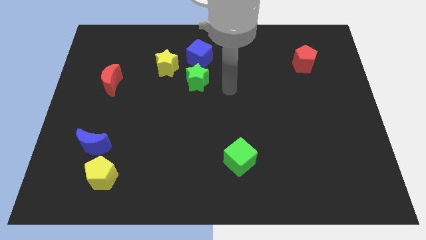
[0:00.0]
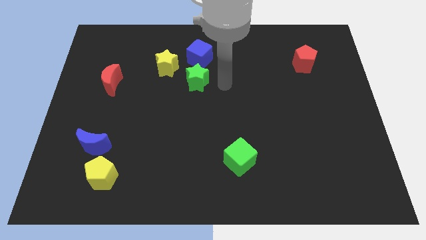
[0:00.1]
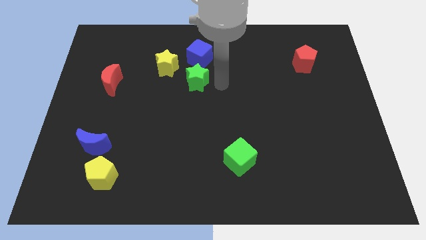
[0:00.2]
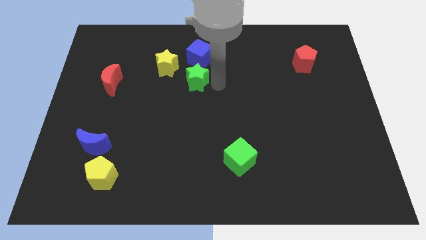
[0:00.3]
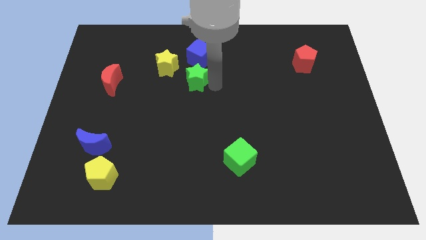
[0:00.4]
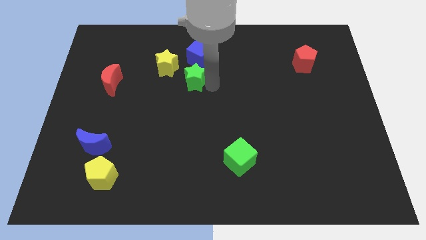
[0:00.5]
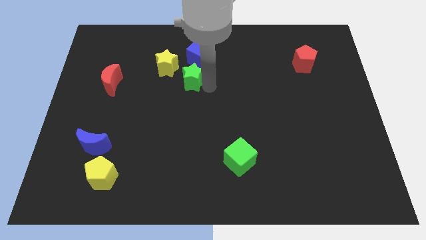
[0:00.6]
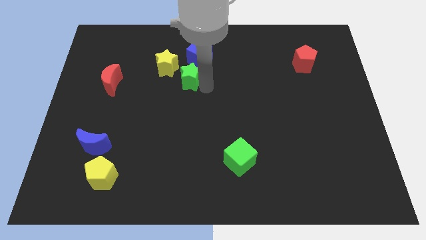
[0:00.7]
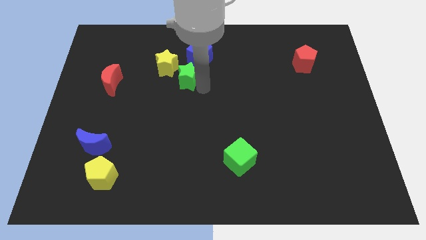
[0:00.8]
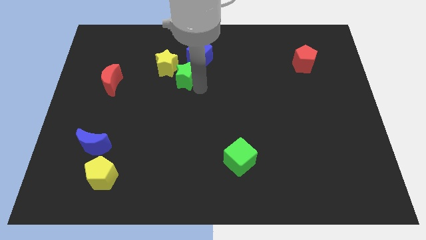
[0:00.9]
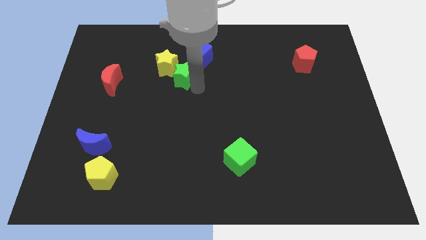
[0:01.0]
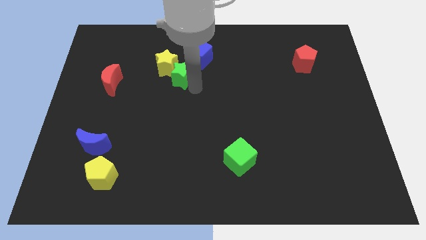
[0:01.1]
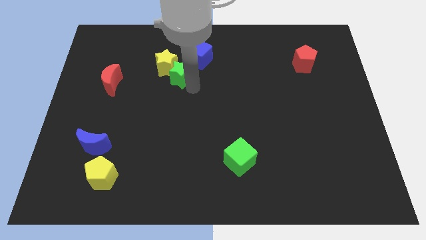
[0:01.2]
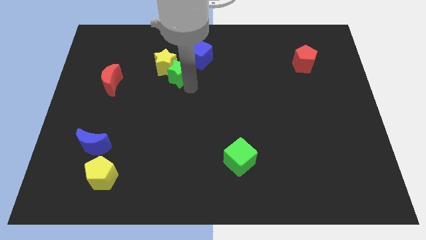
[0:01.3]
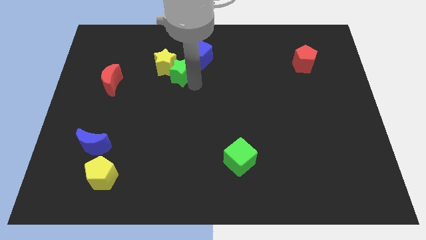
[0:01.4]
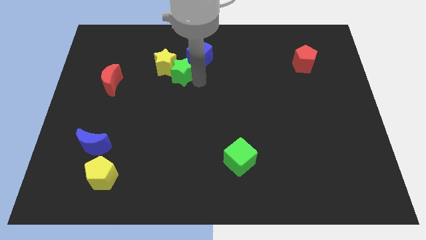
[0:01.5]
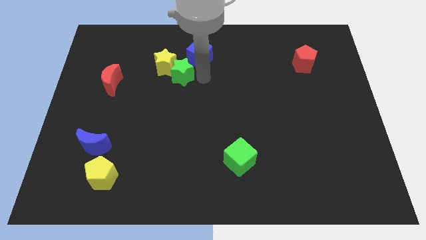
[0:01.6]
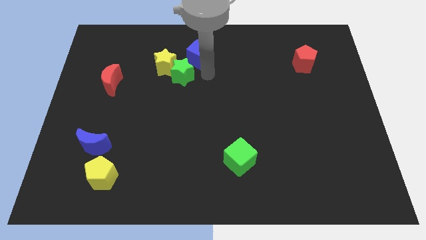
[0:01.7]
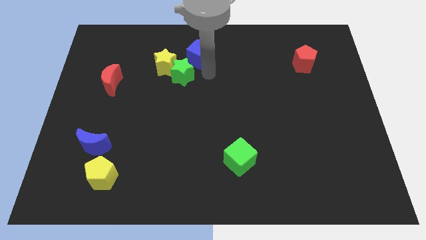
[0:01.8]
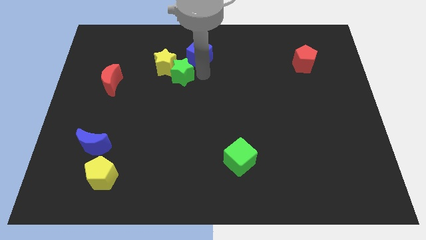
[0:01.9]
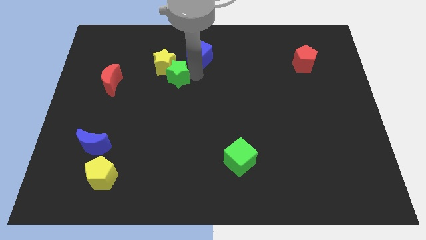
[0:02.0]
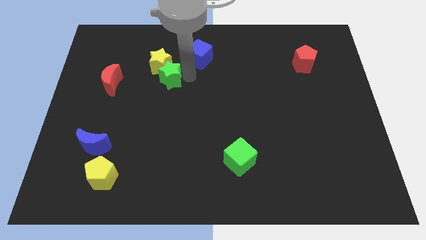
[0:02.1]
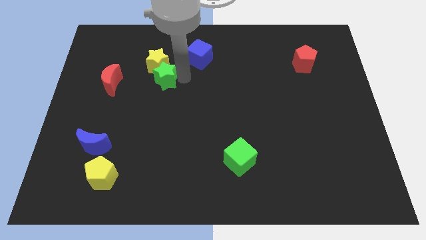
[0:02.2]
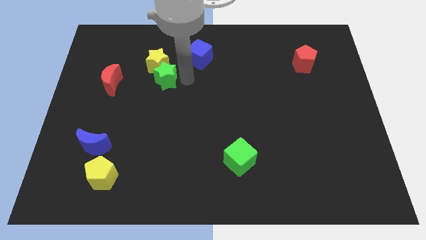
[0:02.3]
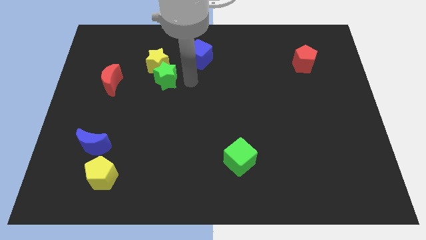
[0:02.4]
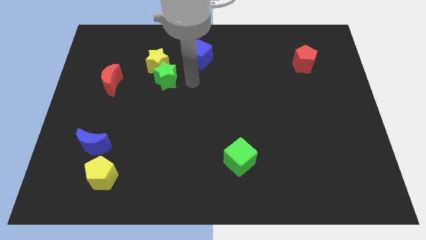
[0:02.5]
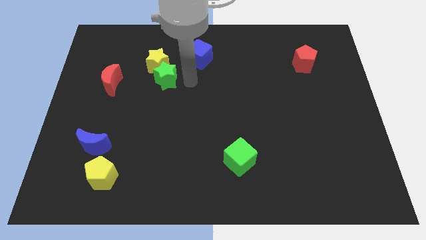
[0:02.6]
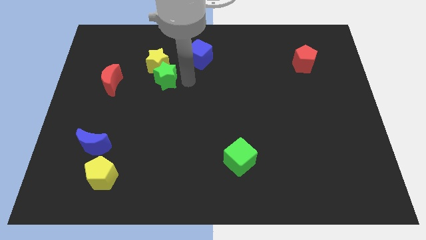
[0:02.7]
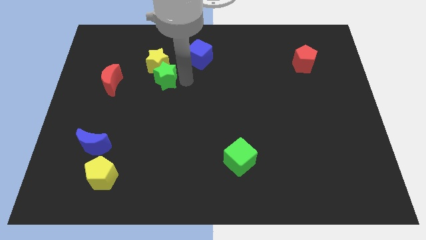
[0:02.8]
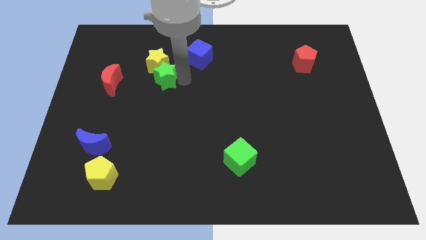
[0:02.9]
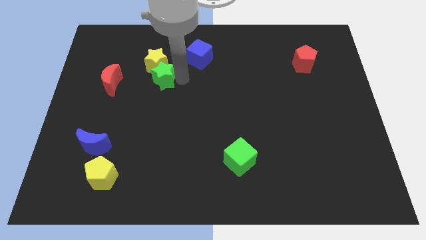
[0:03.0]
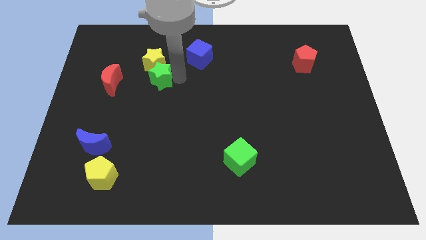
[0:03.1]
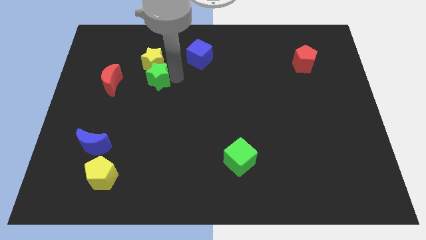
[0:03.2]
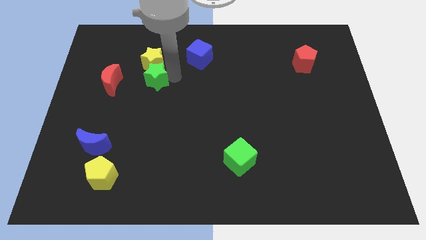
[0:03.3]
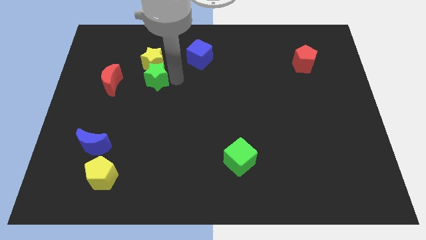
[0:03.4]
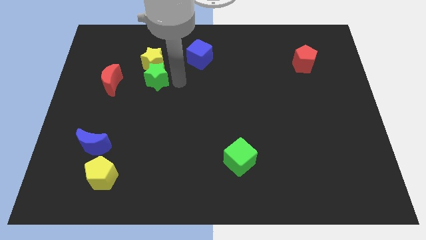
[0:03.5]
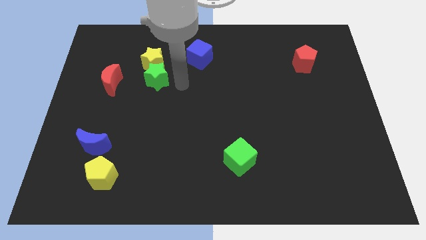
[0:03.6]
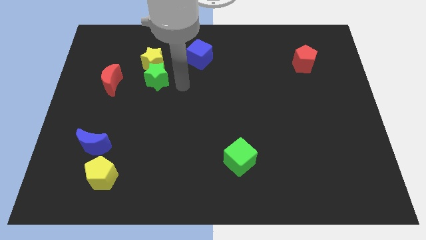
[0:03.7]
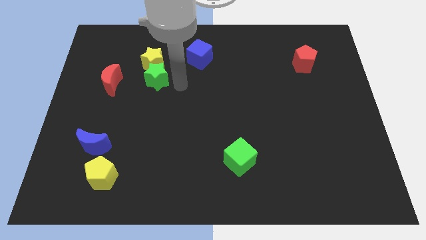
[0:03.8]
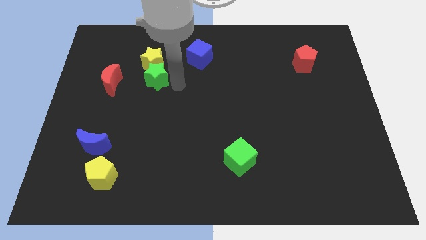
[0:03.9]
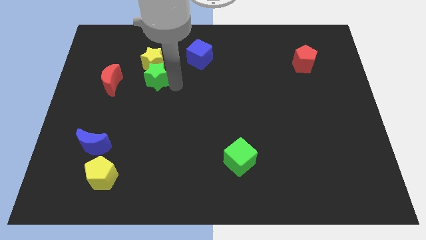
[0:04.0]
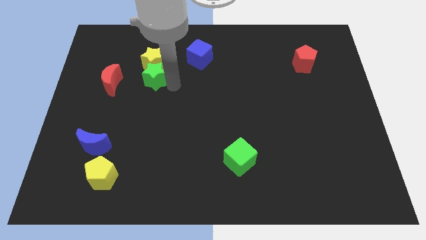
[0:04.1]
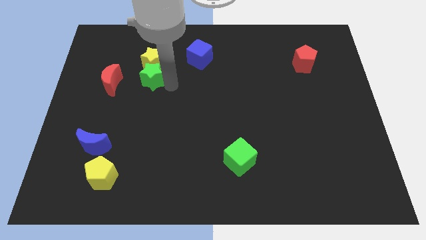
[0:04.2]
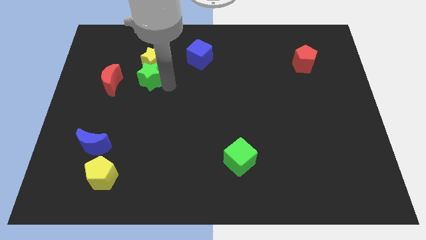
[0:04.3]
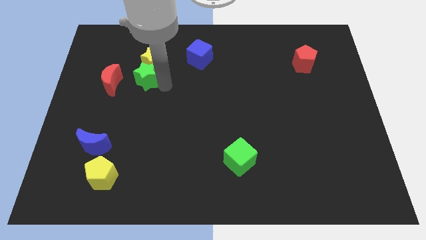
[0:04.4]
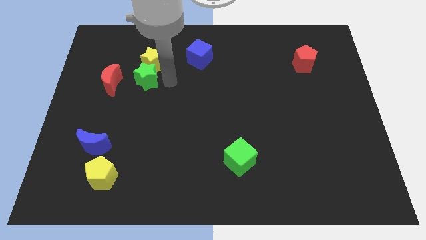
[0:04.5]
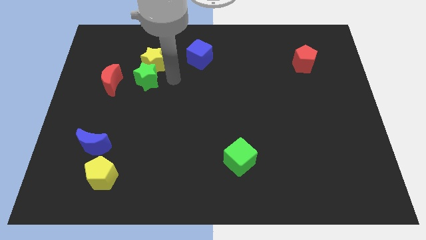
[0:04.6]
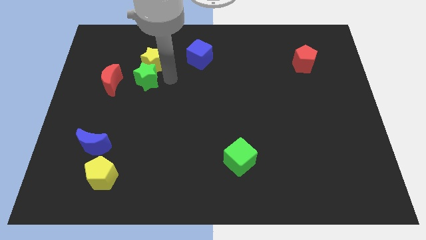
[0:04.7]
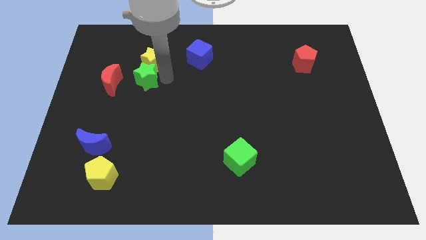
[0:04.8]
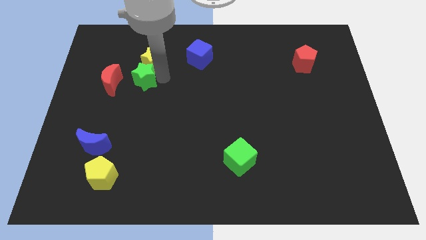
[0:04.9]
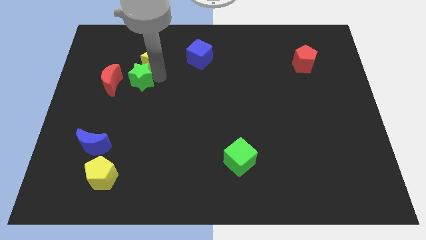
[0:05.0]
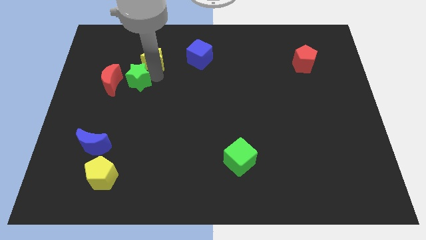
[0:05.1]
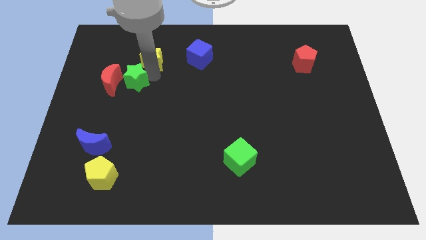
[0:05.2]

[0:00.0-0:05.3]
push the green star towards the red moon

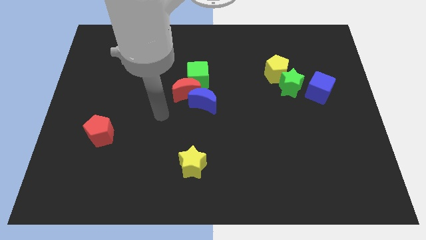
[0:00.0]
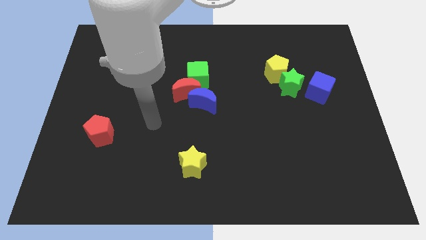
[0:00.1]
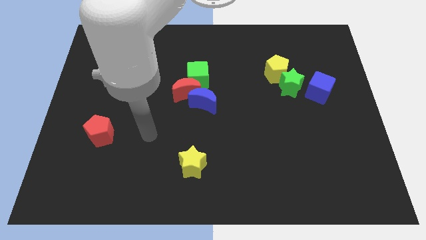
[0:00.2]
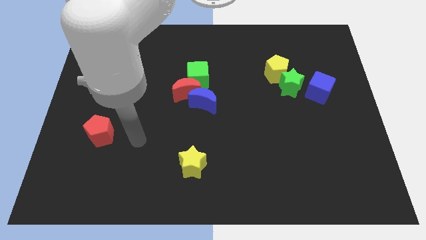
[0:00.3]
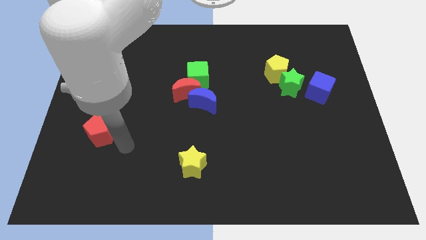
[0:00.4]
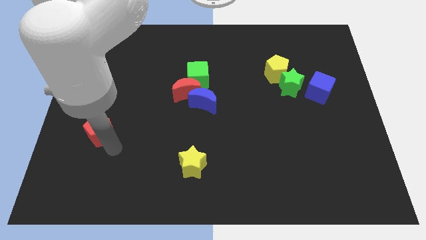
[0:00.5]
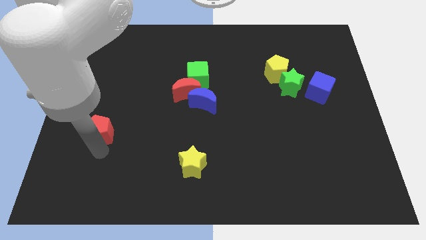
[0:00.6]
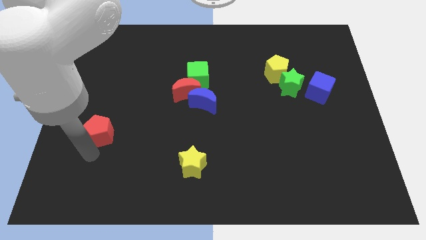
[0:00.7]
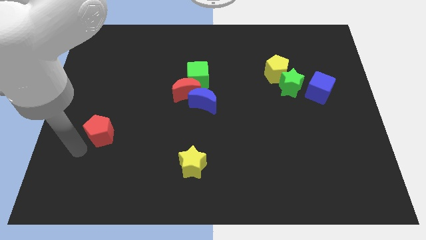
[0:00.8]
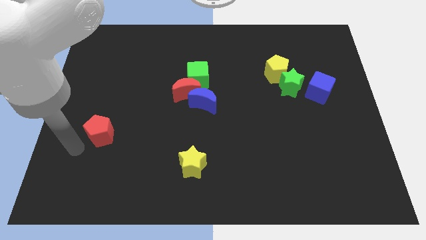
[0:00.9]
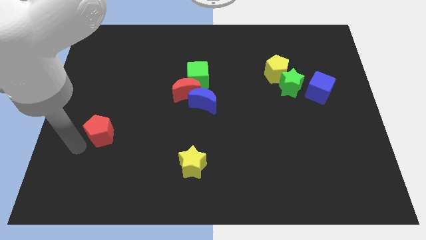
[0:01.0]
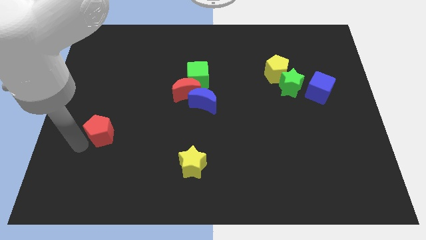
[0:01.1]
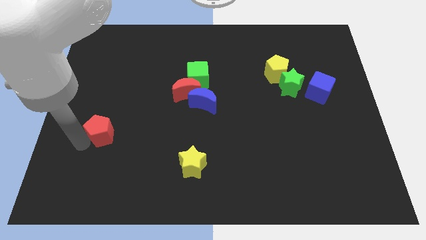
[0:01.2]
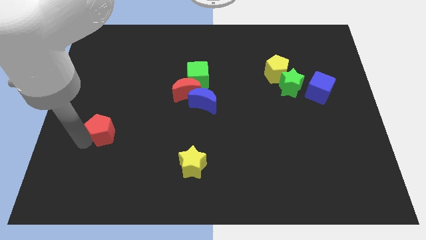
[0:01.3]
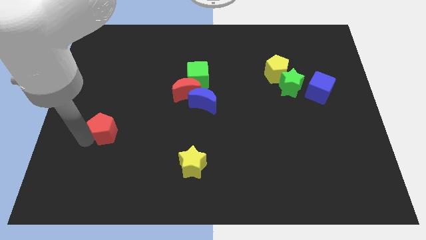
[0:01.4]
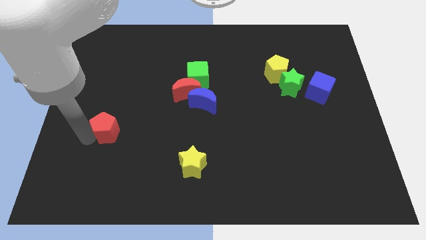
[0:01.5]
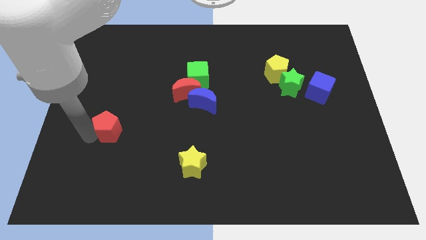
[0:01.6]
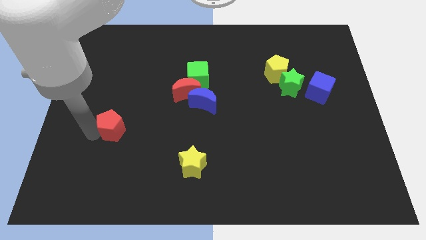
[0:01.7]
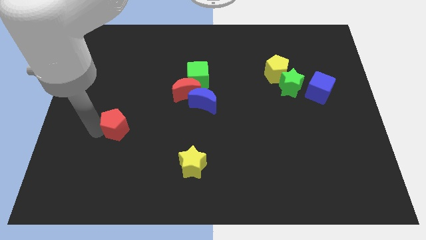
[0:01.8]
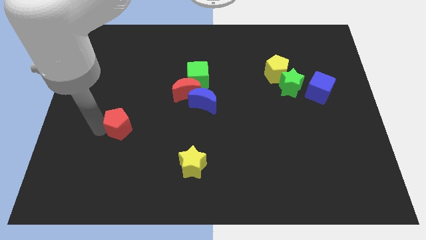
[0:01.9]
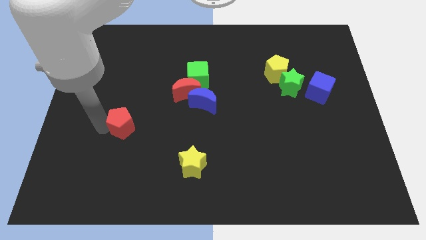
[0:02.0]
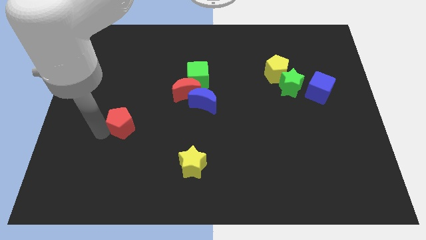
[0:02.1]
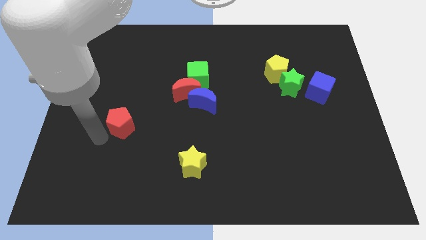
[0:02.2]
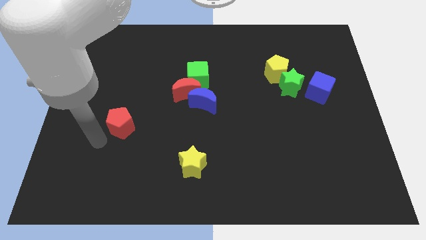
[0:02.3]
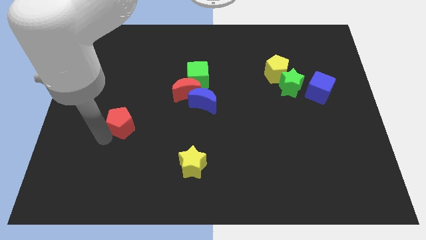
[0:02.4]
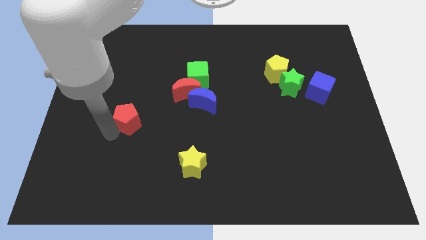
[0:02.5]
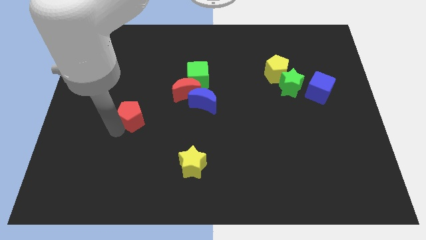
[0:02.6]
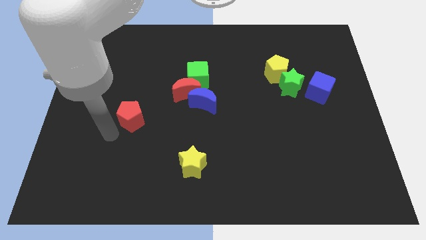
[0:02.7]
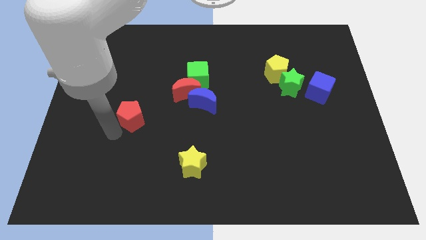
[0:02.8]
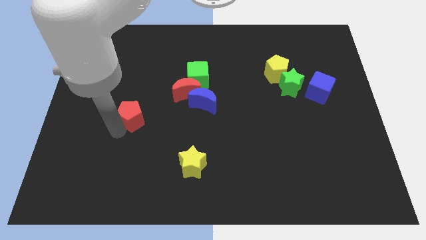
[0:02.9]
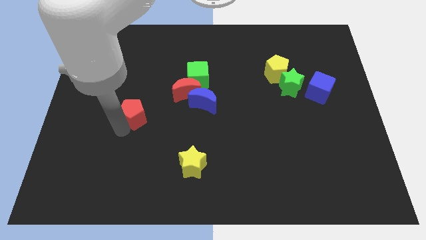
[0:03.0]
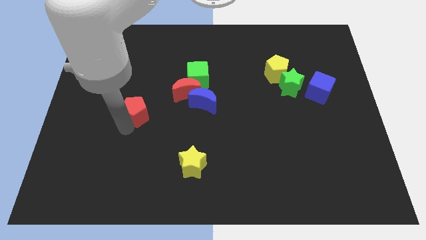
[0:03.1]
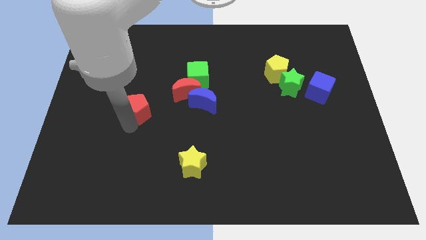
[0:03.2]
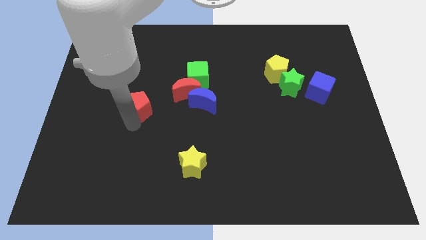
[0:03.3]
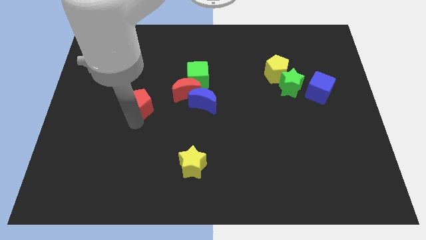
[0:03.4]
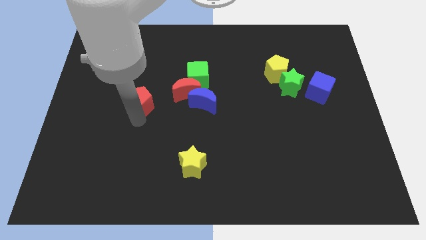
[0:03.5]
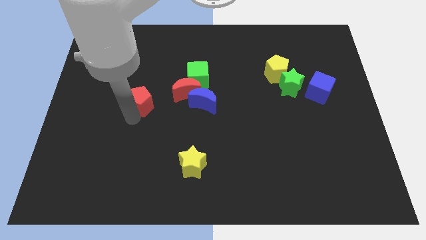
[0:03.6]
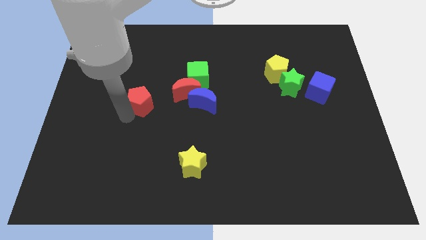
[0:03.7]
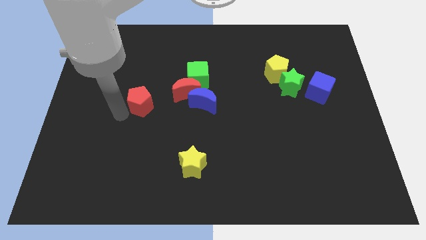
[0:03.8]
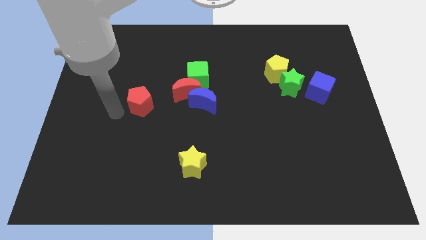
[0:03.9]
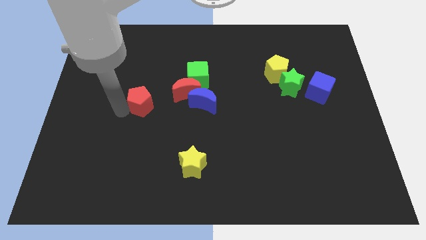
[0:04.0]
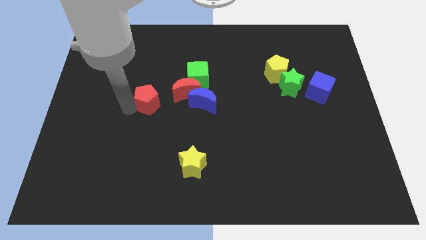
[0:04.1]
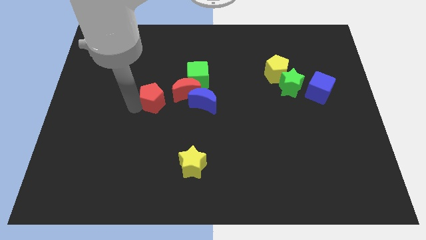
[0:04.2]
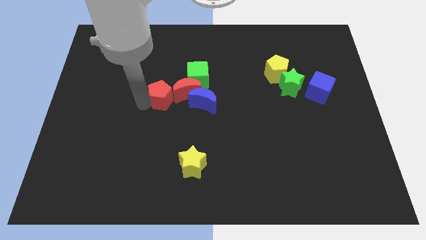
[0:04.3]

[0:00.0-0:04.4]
slide the red pentagon next to the red moon
